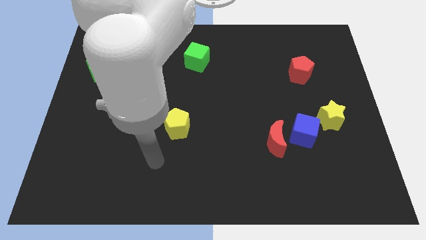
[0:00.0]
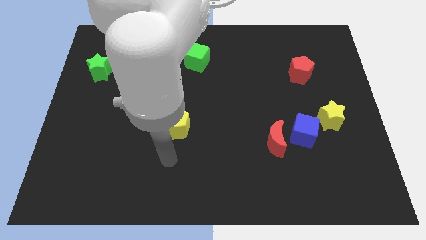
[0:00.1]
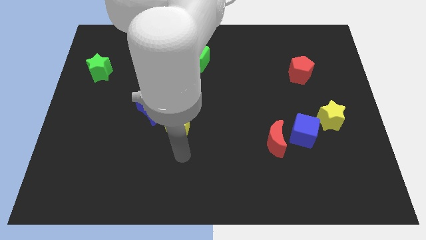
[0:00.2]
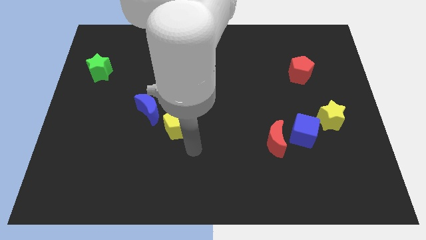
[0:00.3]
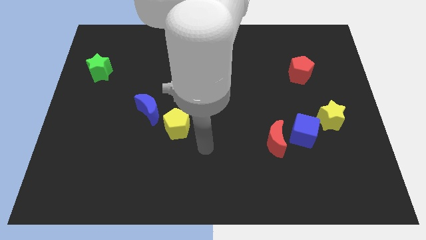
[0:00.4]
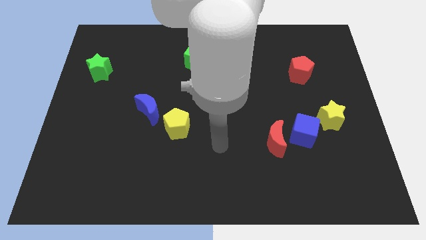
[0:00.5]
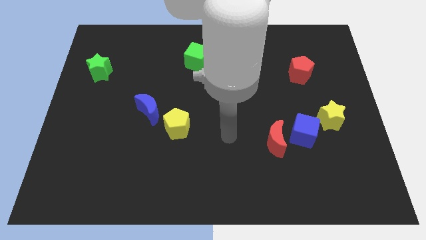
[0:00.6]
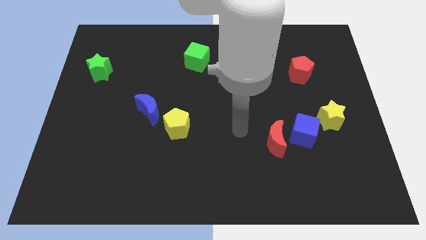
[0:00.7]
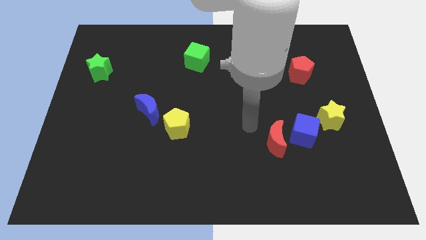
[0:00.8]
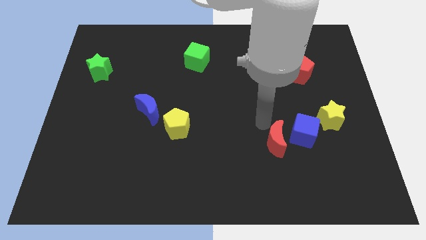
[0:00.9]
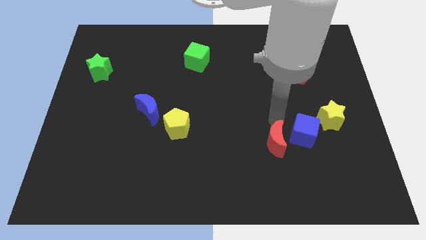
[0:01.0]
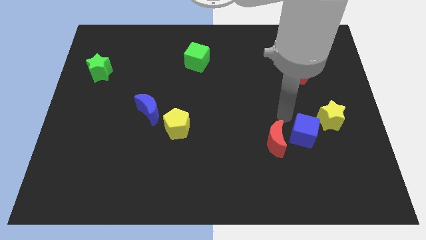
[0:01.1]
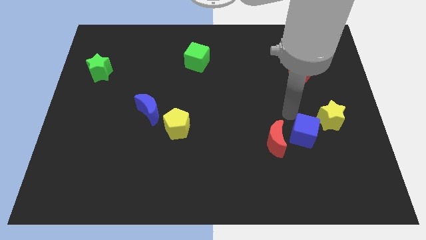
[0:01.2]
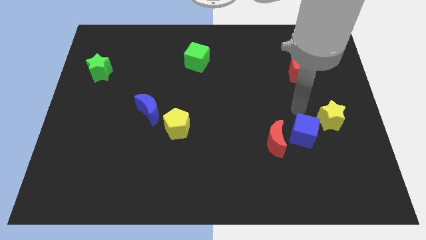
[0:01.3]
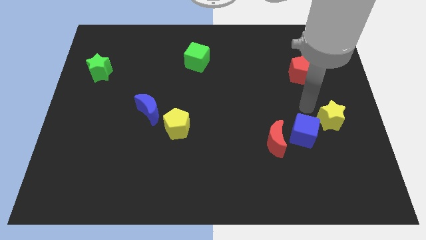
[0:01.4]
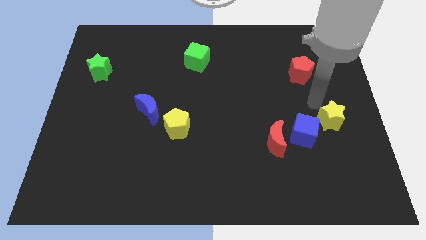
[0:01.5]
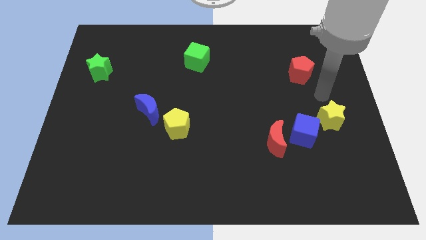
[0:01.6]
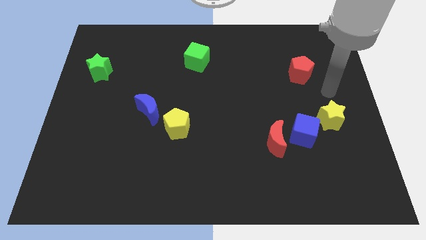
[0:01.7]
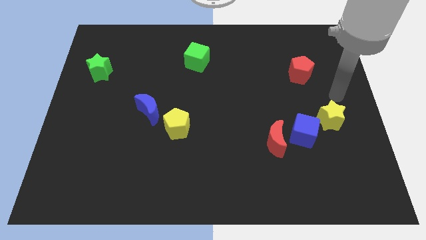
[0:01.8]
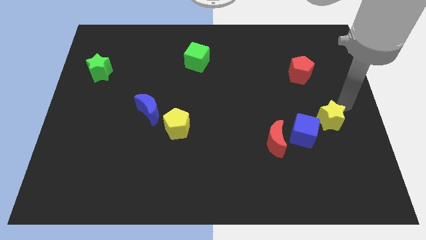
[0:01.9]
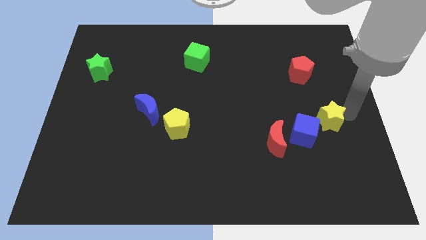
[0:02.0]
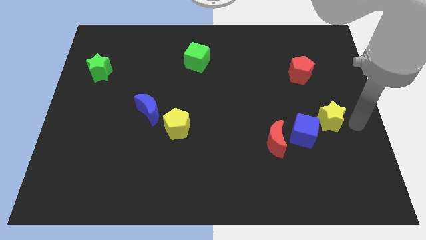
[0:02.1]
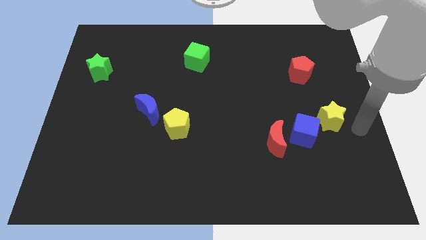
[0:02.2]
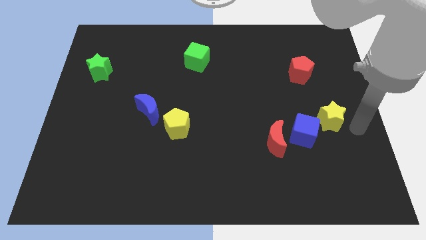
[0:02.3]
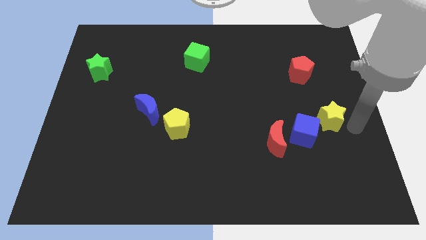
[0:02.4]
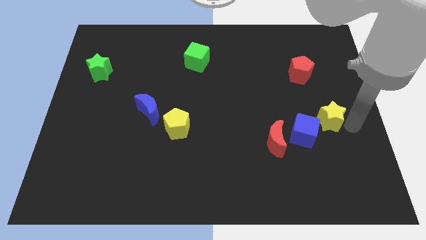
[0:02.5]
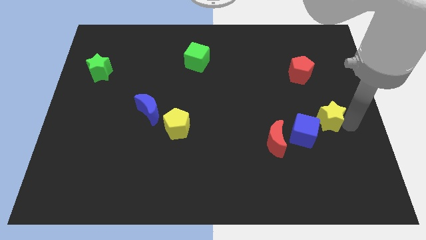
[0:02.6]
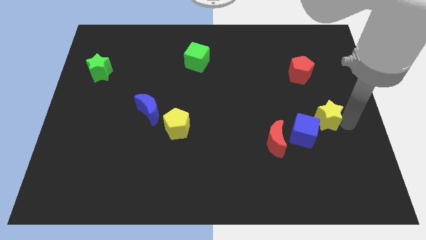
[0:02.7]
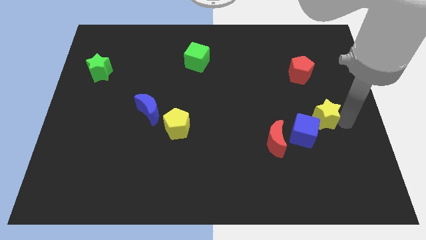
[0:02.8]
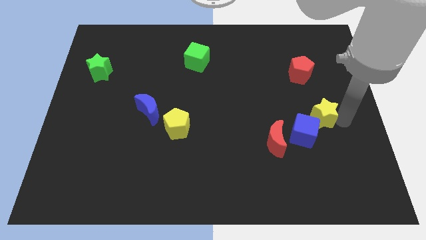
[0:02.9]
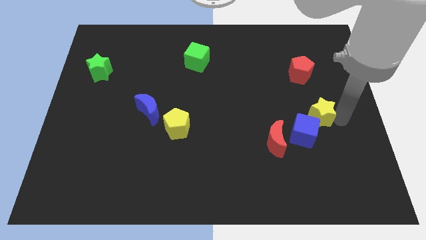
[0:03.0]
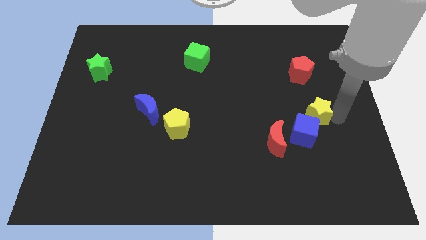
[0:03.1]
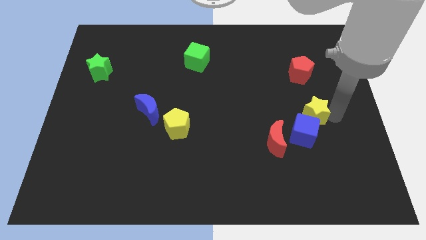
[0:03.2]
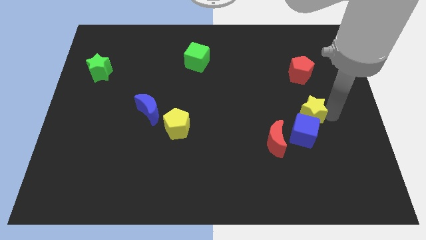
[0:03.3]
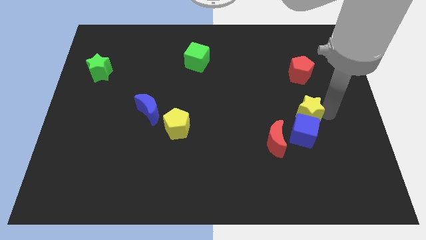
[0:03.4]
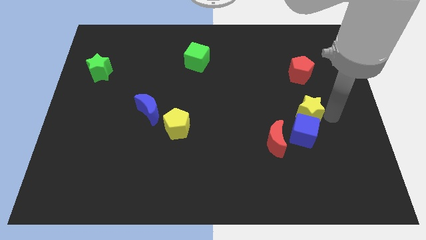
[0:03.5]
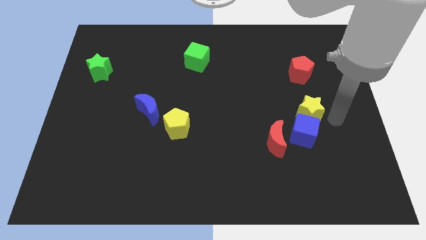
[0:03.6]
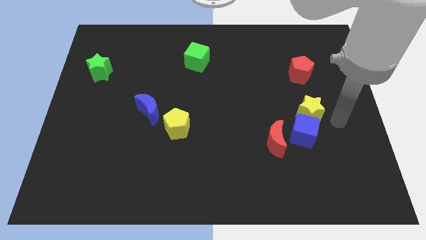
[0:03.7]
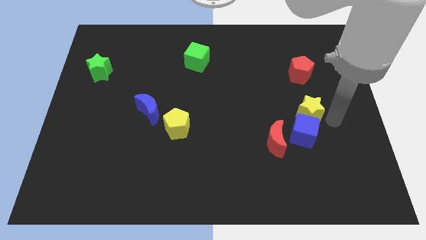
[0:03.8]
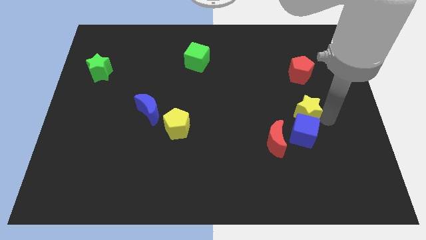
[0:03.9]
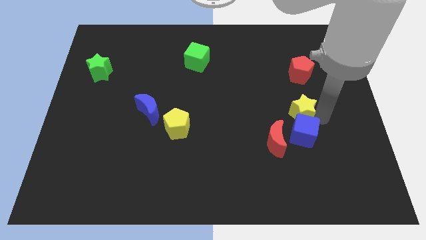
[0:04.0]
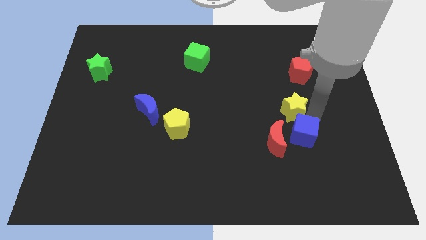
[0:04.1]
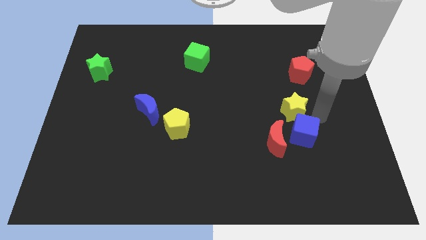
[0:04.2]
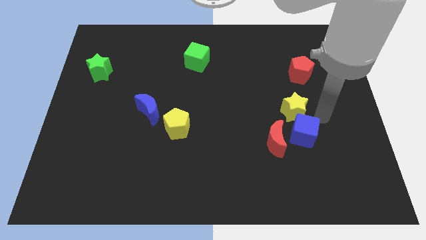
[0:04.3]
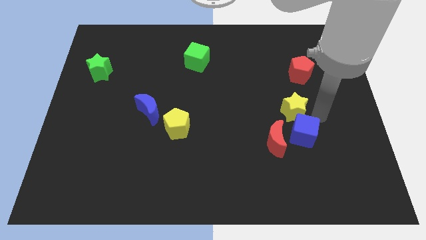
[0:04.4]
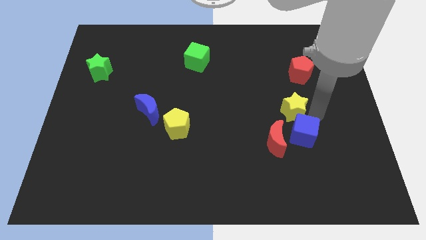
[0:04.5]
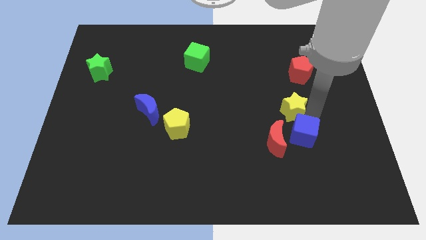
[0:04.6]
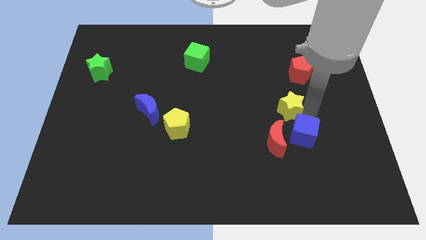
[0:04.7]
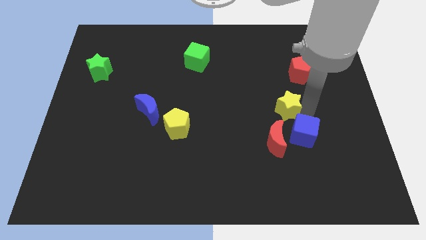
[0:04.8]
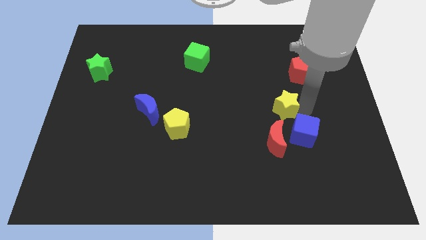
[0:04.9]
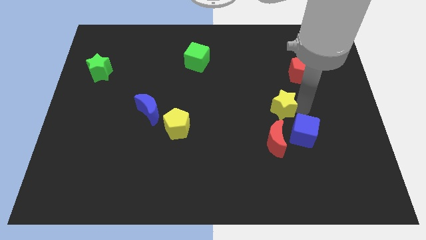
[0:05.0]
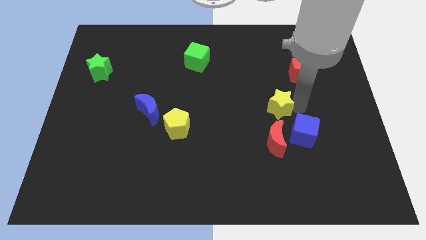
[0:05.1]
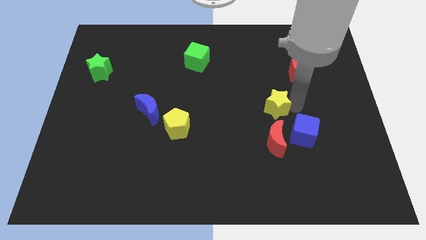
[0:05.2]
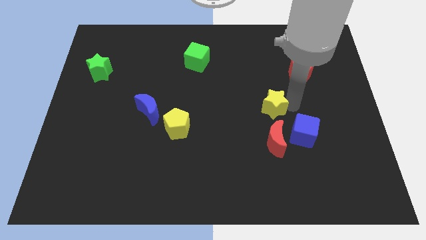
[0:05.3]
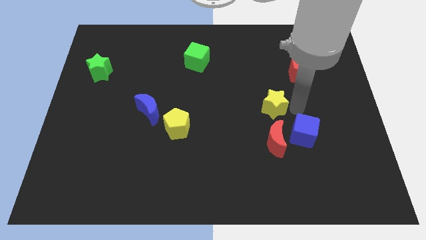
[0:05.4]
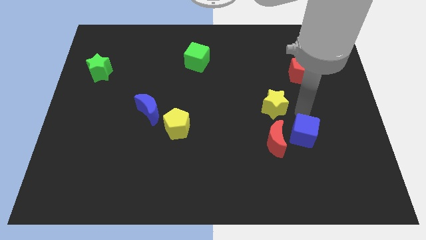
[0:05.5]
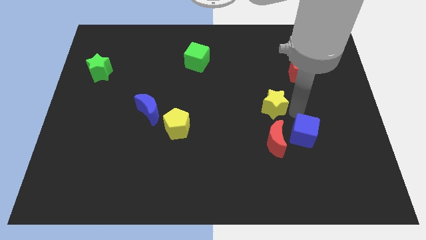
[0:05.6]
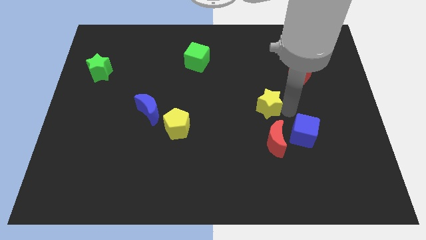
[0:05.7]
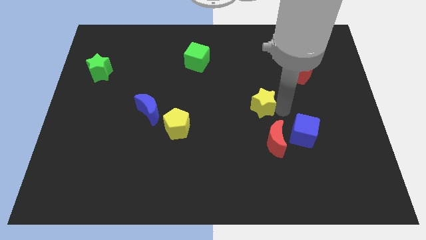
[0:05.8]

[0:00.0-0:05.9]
put the yellow star to the middle of the board
